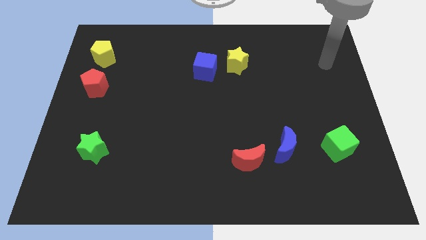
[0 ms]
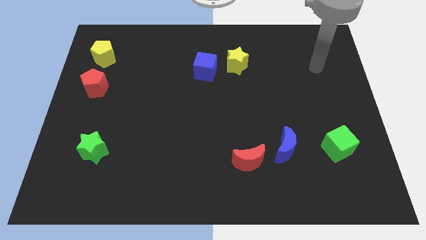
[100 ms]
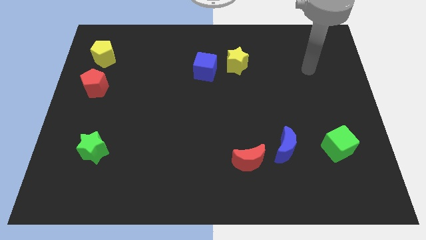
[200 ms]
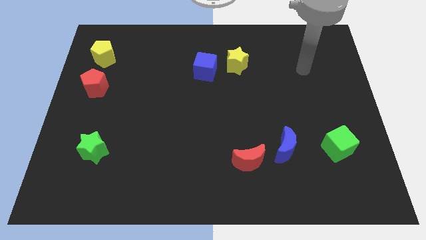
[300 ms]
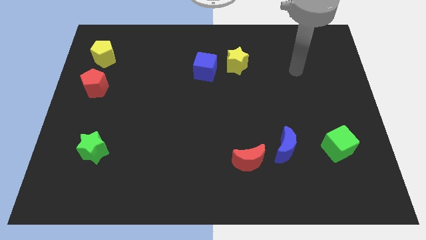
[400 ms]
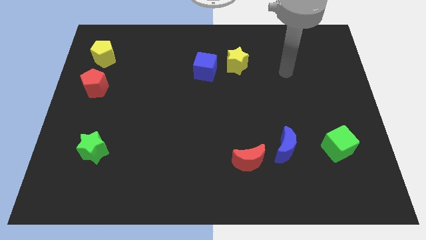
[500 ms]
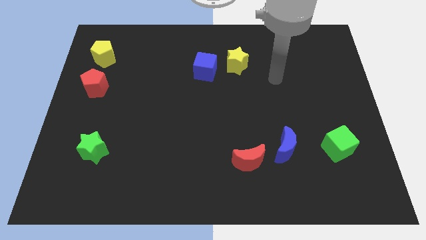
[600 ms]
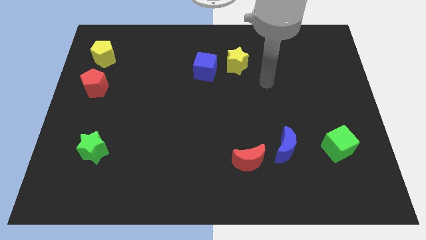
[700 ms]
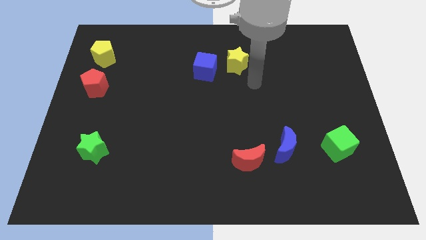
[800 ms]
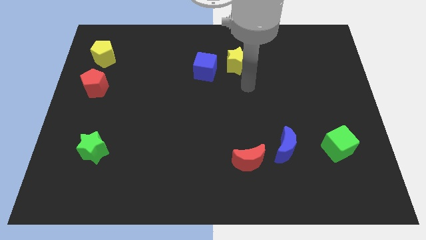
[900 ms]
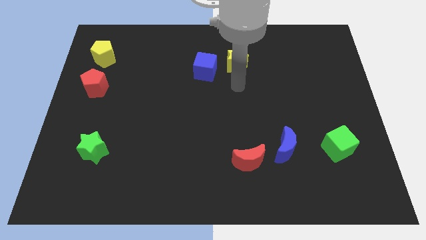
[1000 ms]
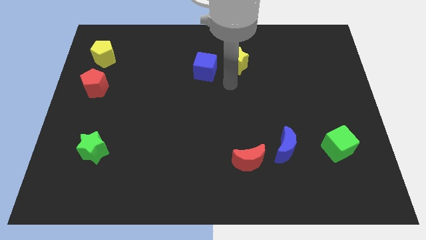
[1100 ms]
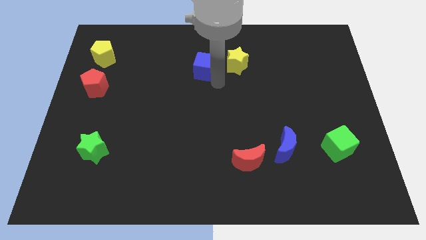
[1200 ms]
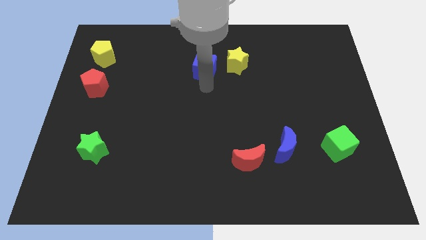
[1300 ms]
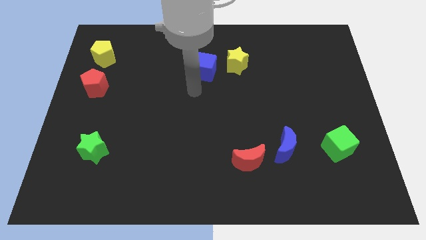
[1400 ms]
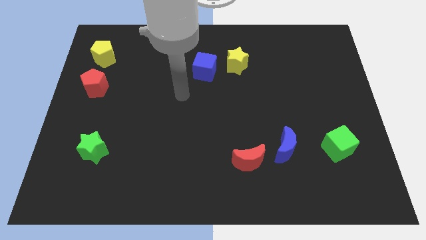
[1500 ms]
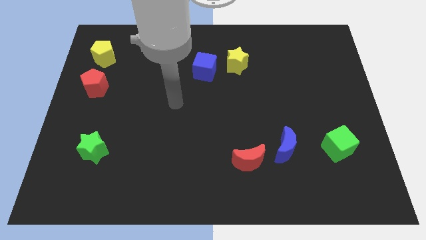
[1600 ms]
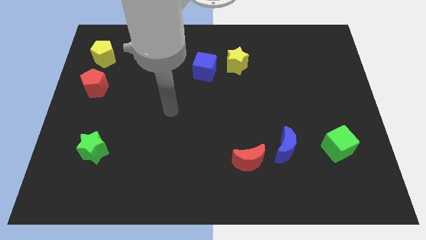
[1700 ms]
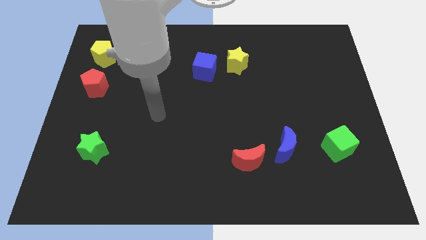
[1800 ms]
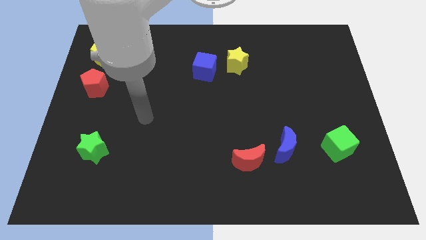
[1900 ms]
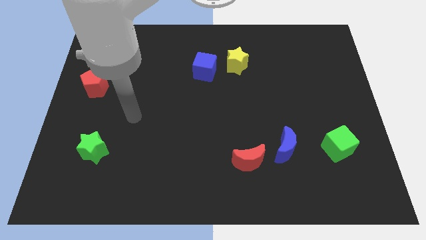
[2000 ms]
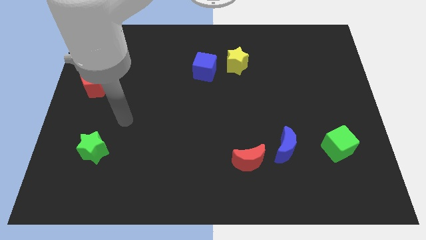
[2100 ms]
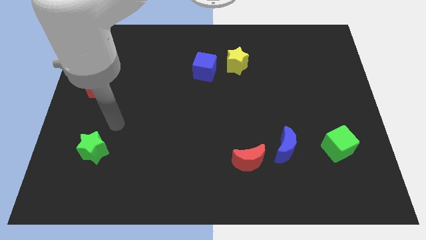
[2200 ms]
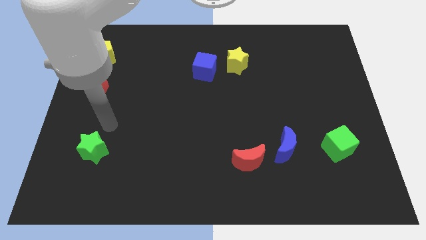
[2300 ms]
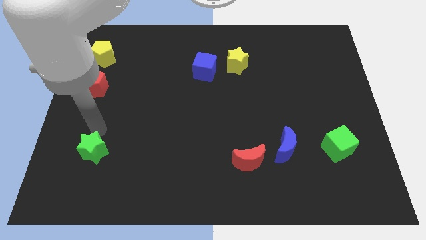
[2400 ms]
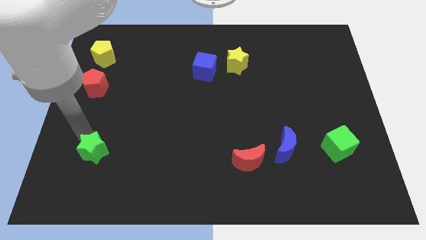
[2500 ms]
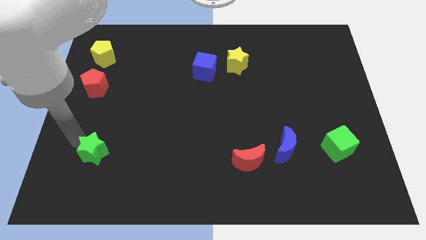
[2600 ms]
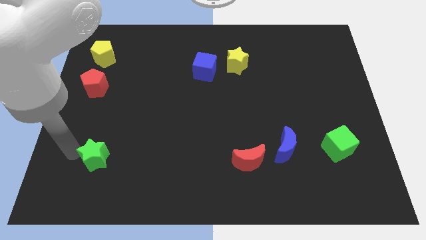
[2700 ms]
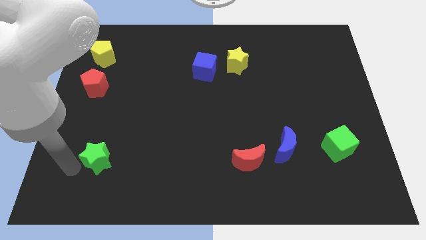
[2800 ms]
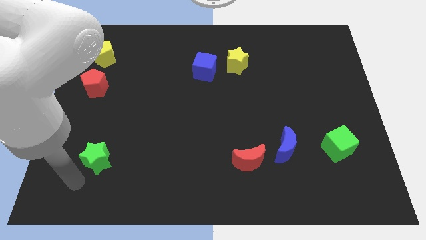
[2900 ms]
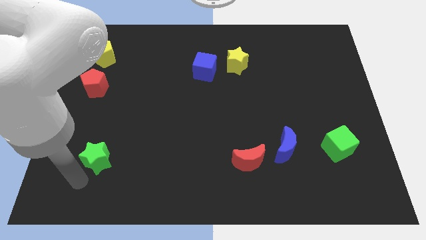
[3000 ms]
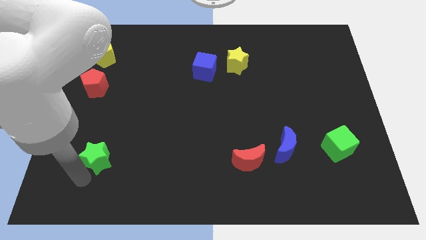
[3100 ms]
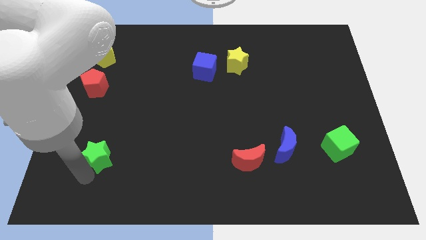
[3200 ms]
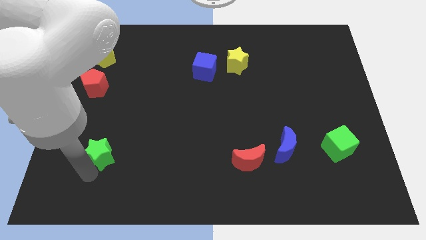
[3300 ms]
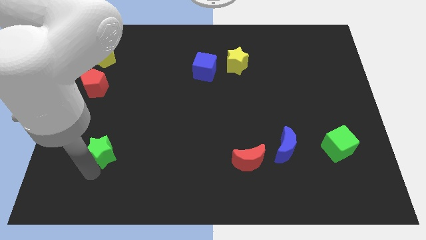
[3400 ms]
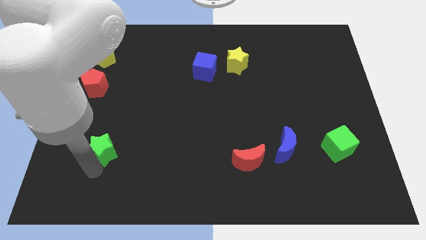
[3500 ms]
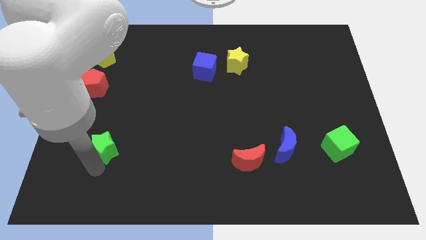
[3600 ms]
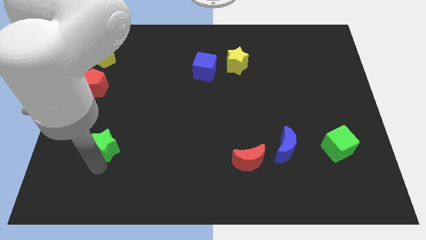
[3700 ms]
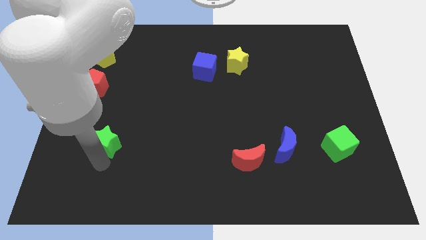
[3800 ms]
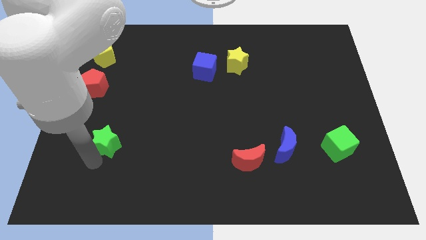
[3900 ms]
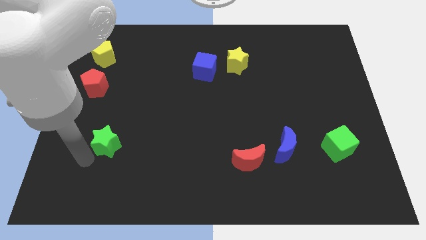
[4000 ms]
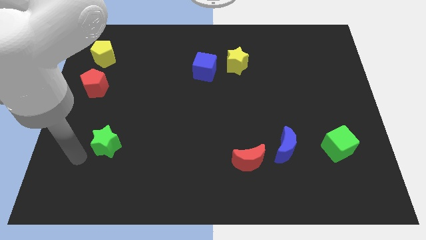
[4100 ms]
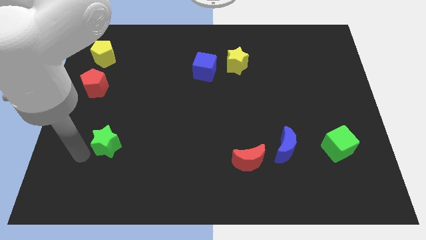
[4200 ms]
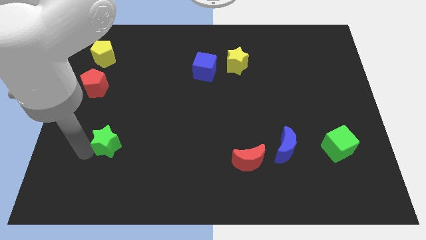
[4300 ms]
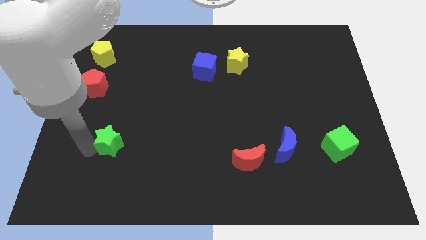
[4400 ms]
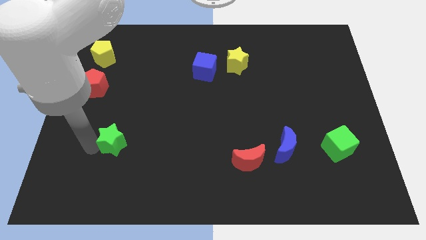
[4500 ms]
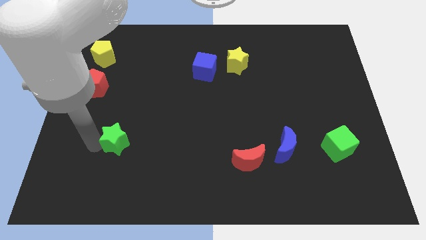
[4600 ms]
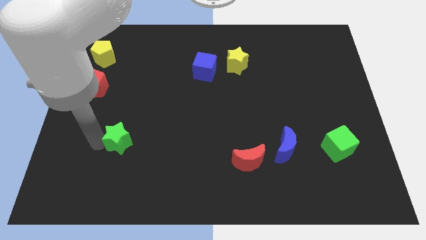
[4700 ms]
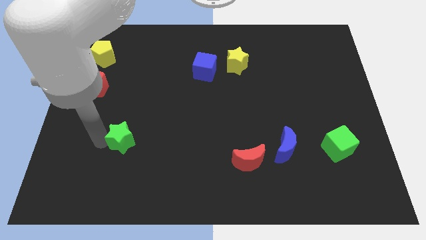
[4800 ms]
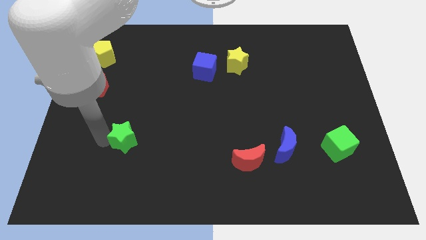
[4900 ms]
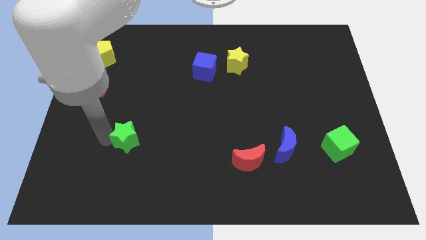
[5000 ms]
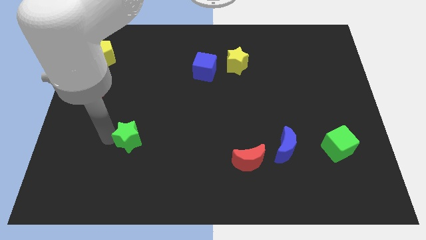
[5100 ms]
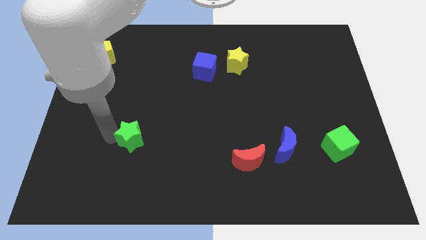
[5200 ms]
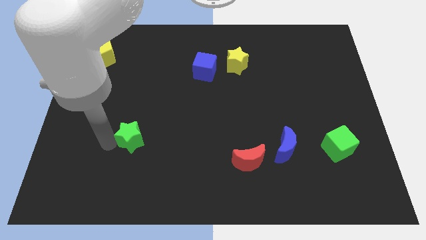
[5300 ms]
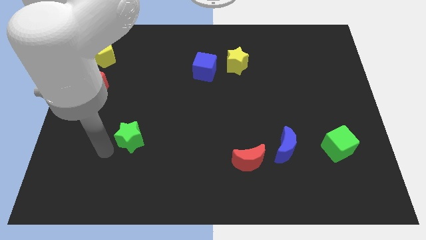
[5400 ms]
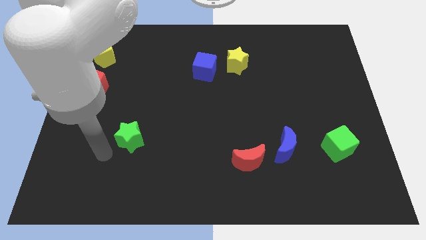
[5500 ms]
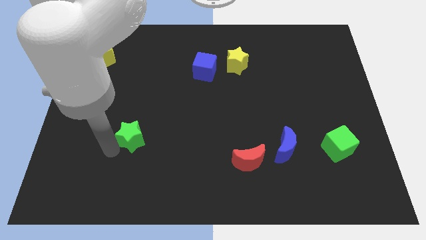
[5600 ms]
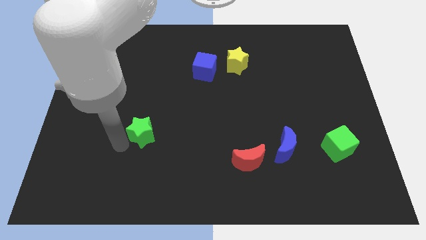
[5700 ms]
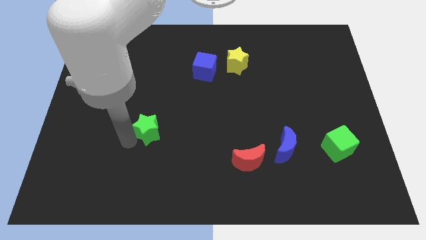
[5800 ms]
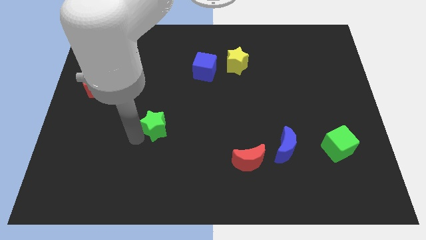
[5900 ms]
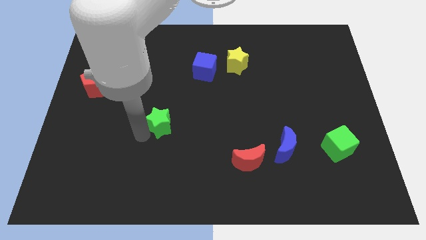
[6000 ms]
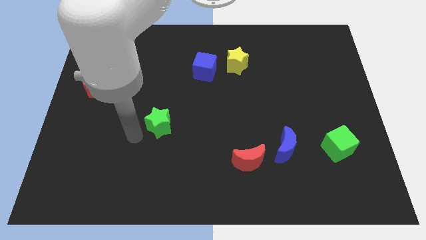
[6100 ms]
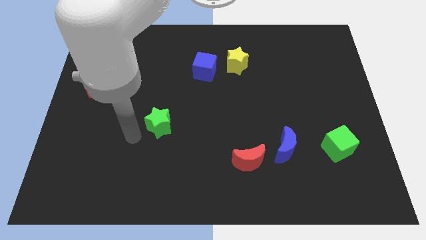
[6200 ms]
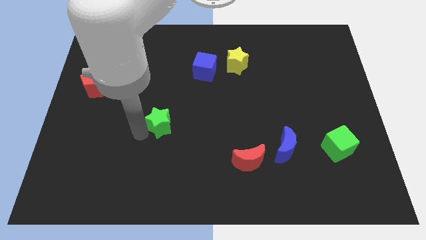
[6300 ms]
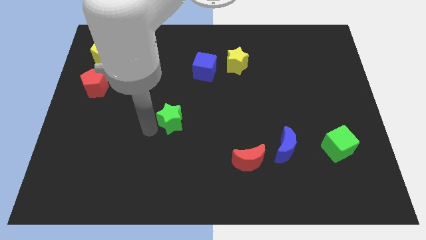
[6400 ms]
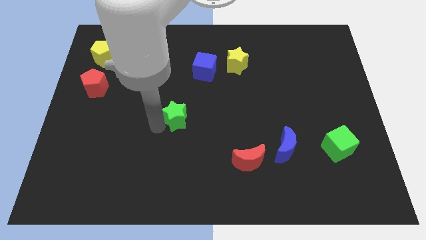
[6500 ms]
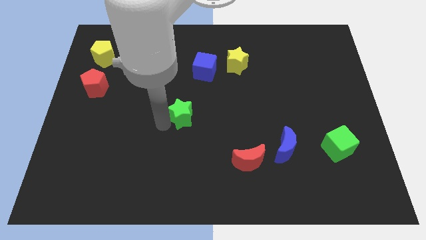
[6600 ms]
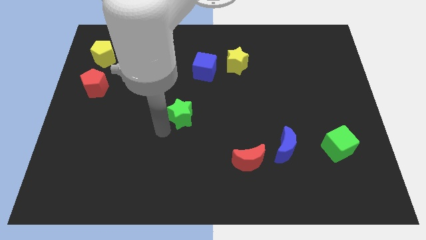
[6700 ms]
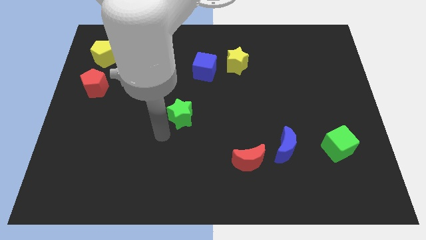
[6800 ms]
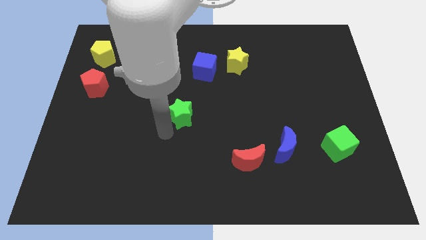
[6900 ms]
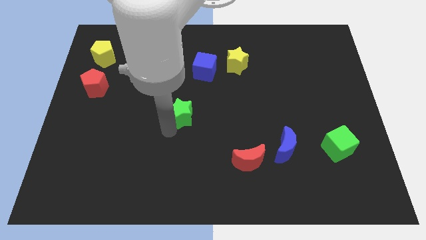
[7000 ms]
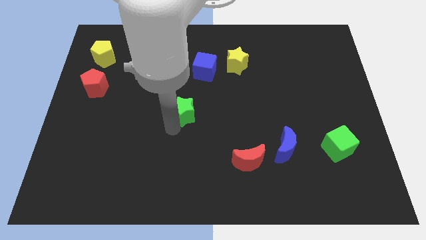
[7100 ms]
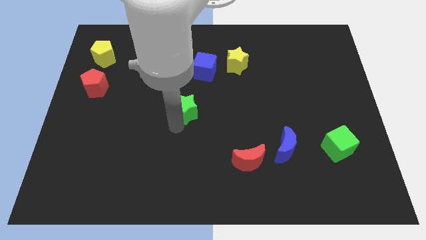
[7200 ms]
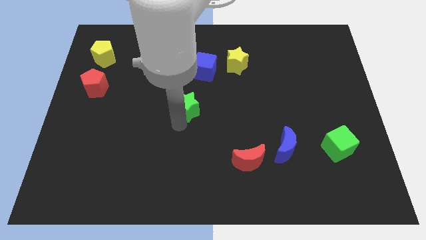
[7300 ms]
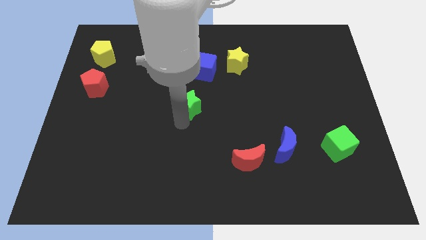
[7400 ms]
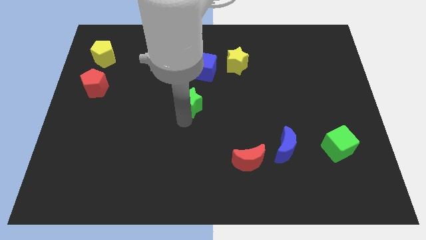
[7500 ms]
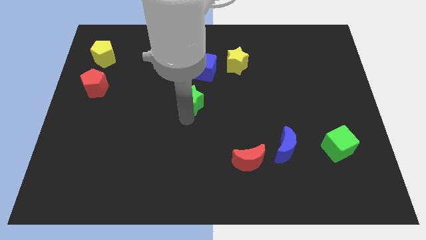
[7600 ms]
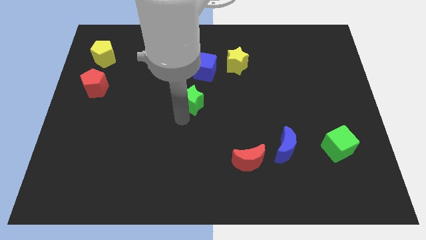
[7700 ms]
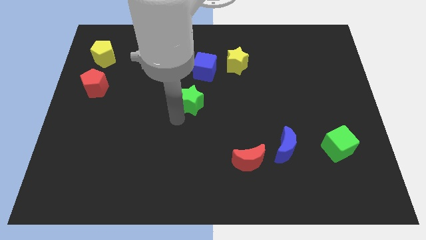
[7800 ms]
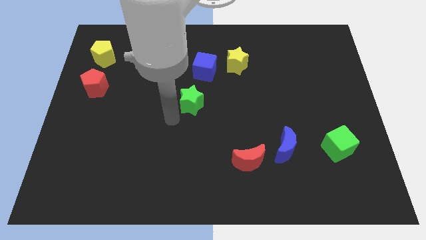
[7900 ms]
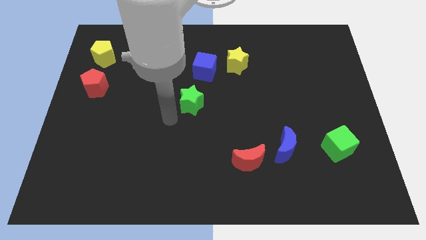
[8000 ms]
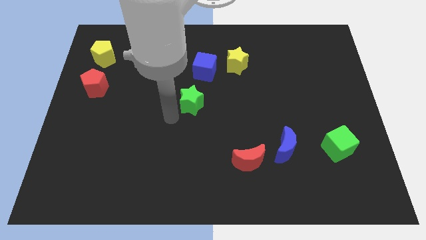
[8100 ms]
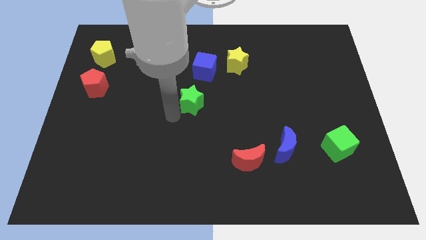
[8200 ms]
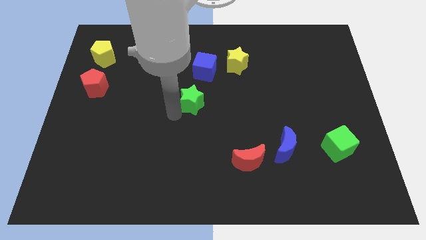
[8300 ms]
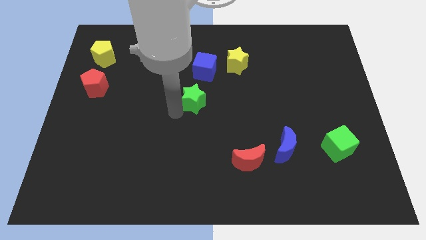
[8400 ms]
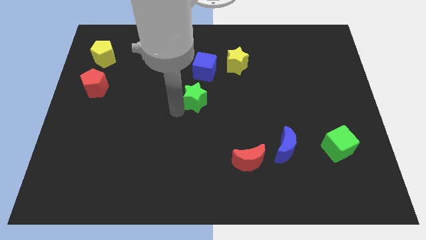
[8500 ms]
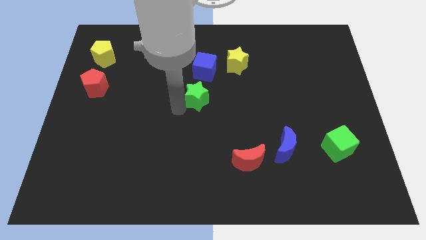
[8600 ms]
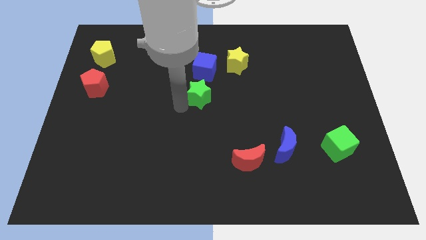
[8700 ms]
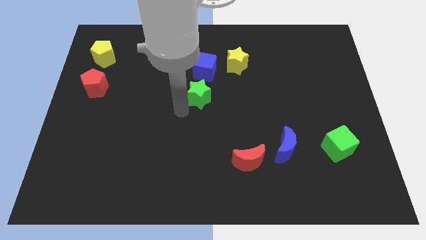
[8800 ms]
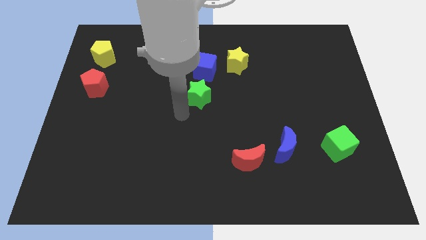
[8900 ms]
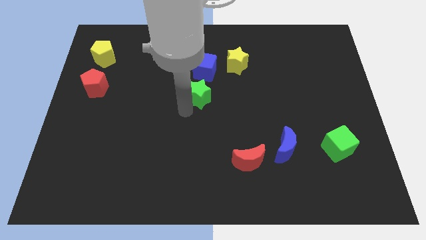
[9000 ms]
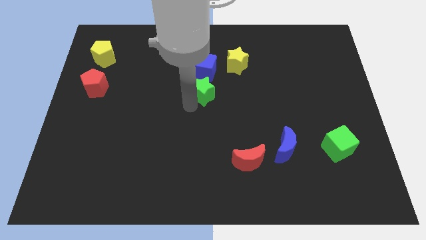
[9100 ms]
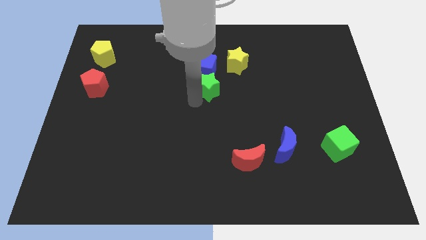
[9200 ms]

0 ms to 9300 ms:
move the green star to the bottom left side of the yellow star
